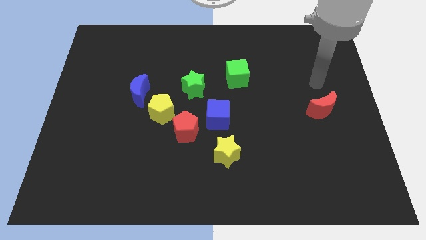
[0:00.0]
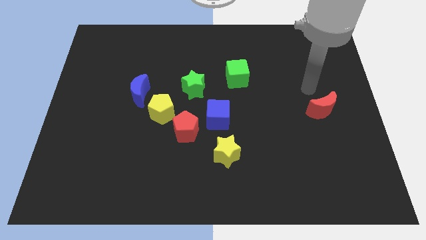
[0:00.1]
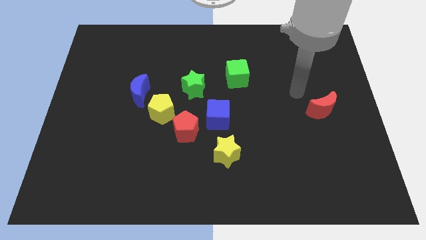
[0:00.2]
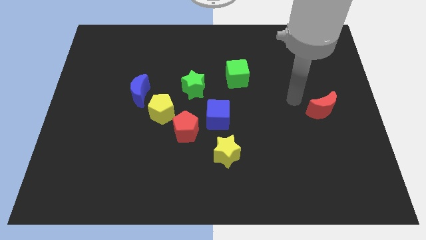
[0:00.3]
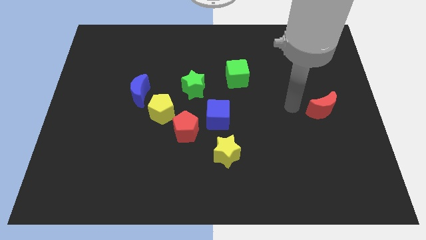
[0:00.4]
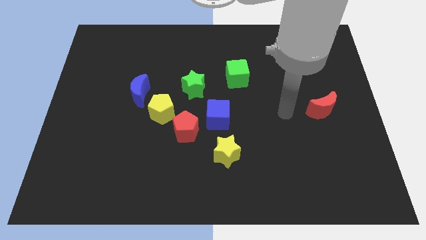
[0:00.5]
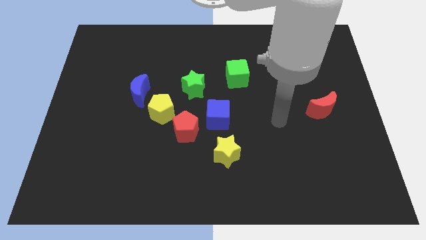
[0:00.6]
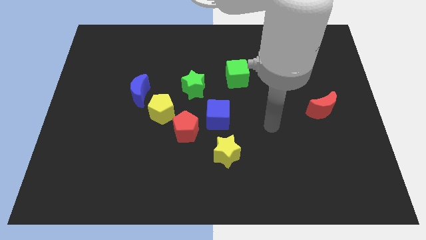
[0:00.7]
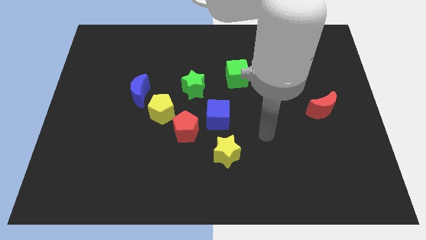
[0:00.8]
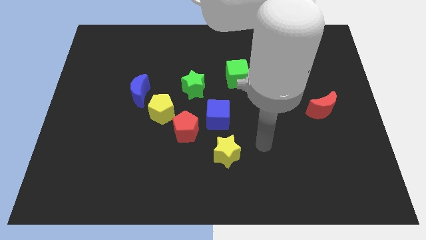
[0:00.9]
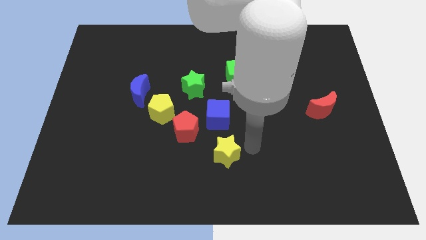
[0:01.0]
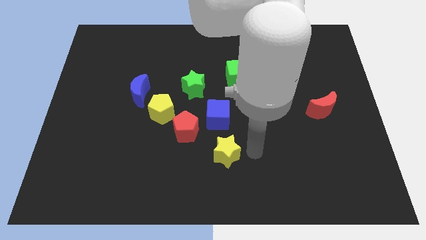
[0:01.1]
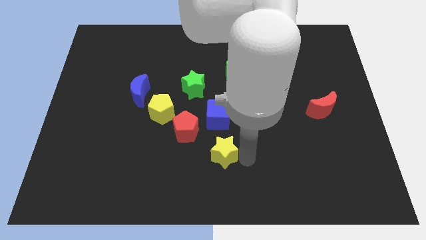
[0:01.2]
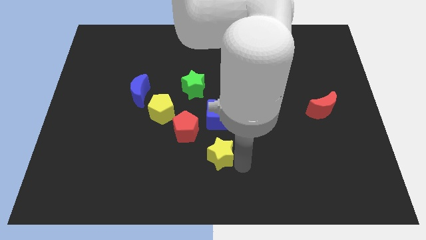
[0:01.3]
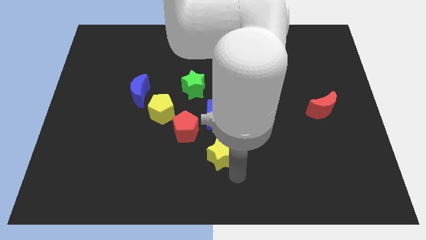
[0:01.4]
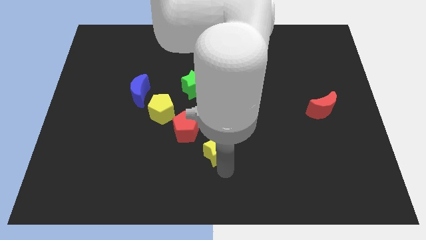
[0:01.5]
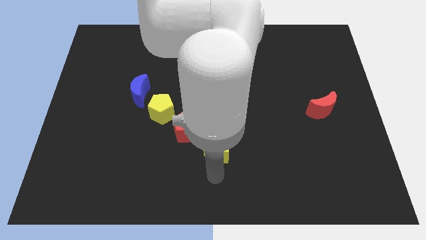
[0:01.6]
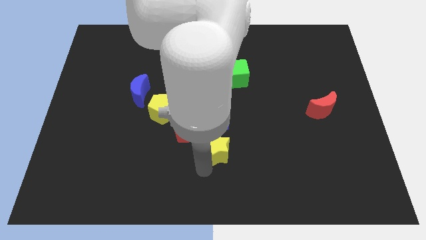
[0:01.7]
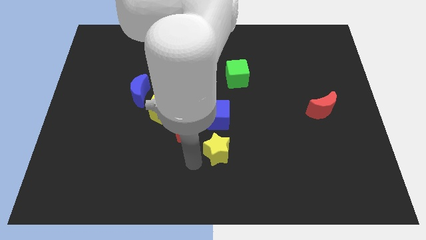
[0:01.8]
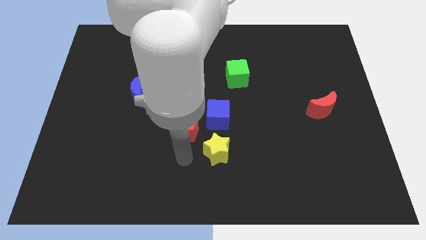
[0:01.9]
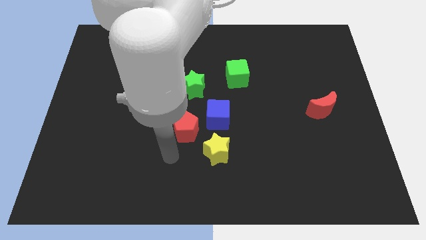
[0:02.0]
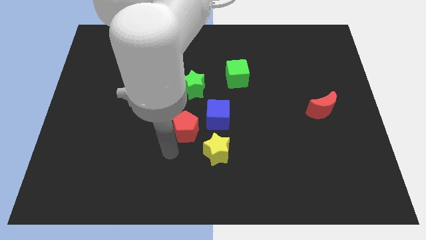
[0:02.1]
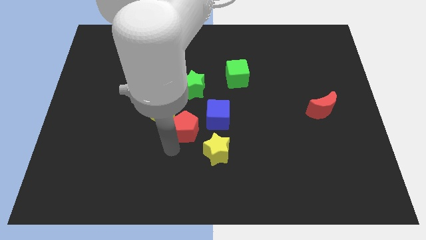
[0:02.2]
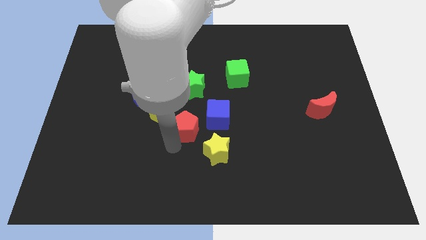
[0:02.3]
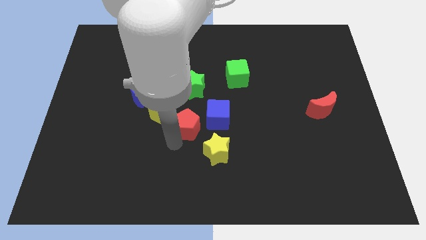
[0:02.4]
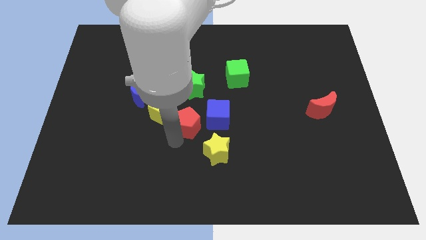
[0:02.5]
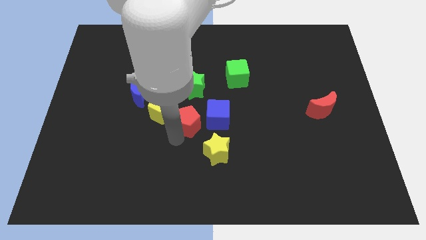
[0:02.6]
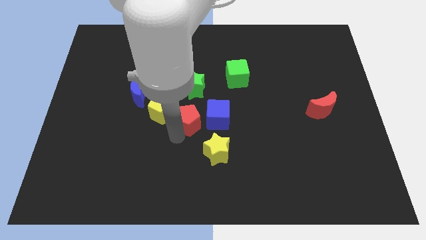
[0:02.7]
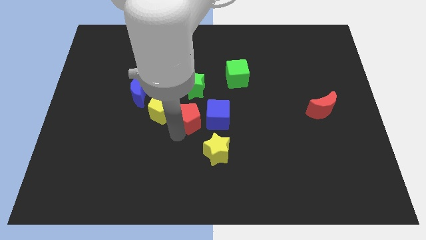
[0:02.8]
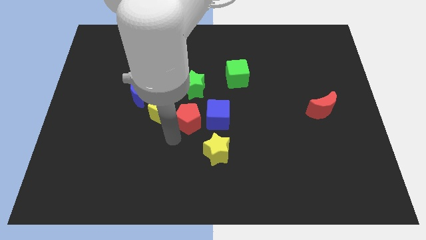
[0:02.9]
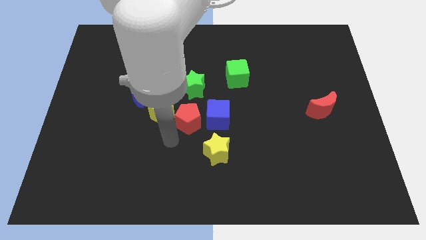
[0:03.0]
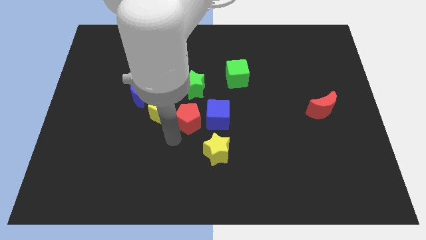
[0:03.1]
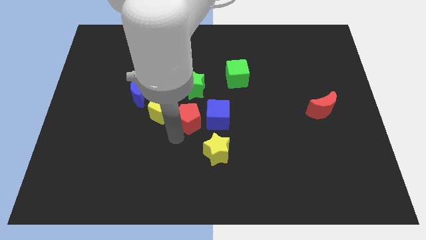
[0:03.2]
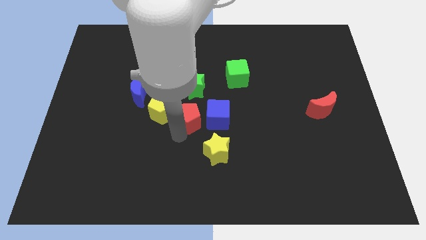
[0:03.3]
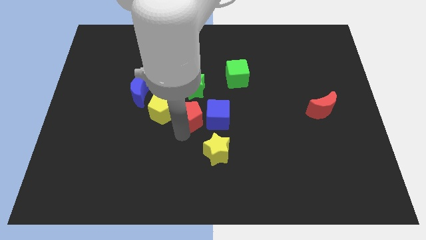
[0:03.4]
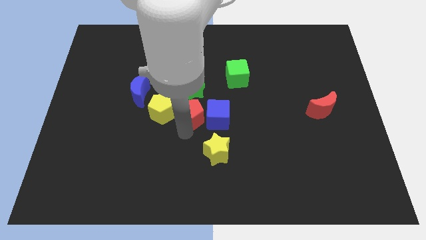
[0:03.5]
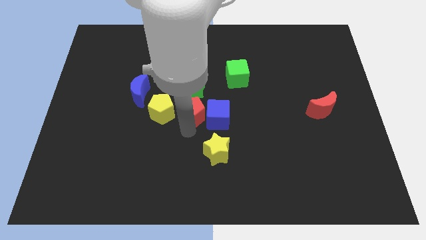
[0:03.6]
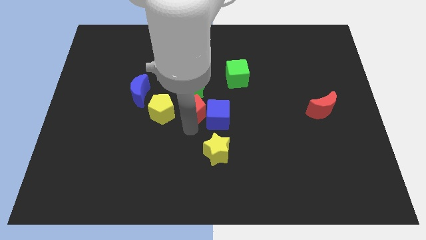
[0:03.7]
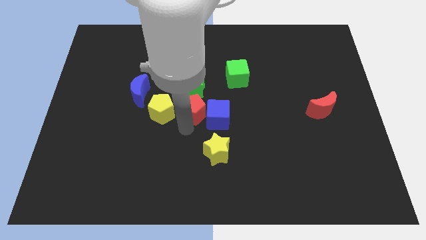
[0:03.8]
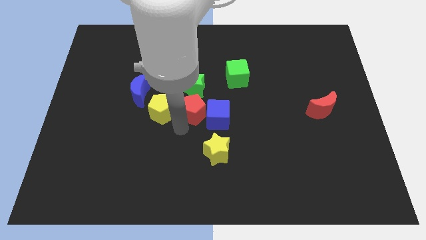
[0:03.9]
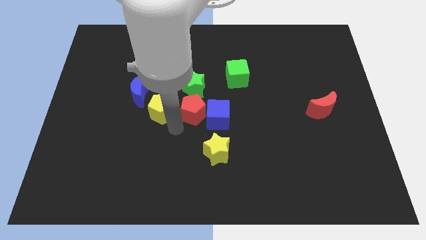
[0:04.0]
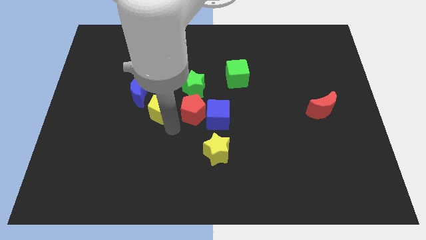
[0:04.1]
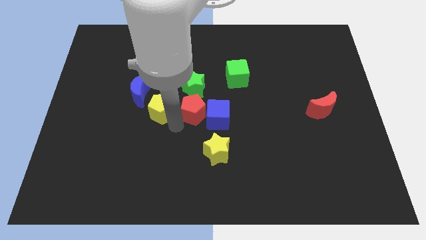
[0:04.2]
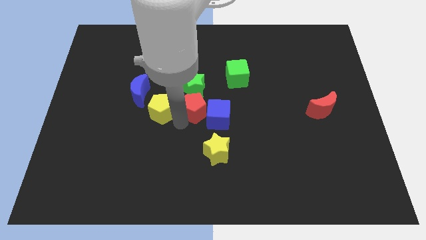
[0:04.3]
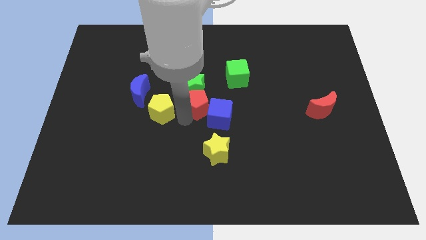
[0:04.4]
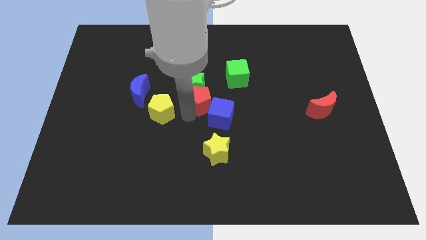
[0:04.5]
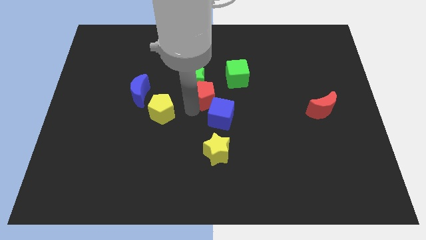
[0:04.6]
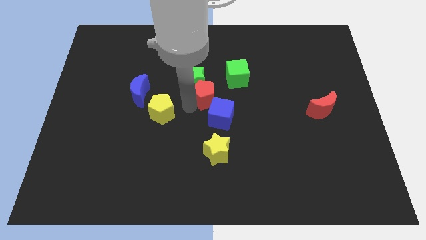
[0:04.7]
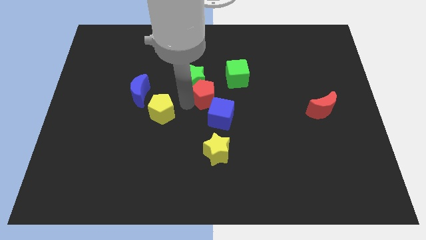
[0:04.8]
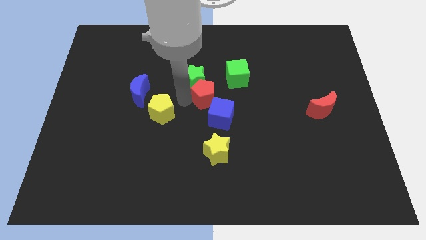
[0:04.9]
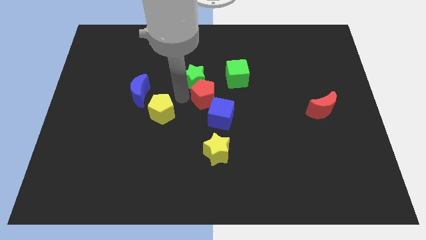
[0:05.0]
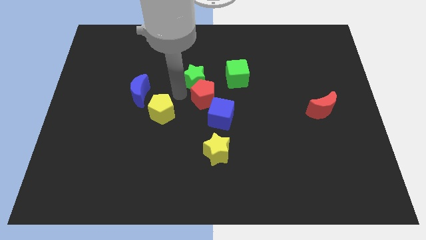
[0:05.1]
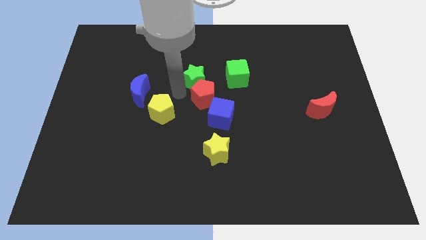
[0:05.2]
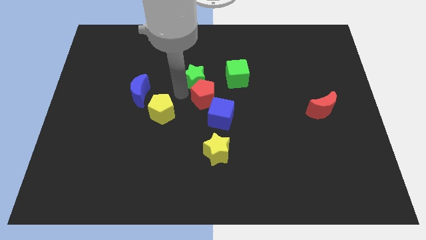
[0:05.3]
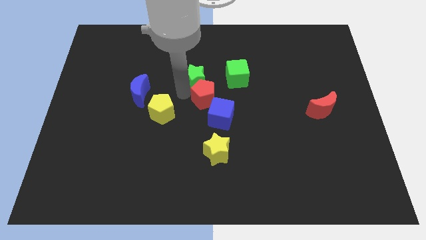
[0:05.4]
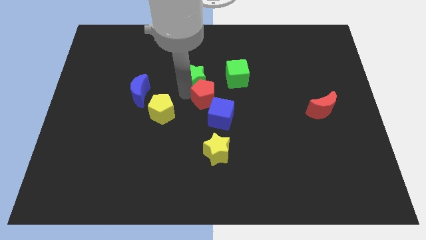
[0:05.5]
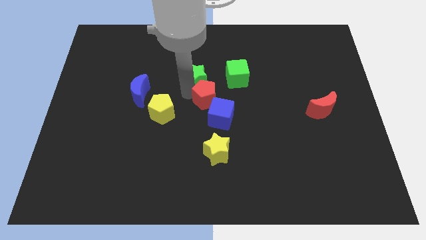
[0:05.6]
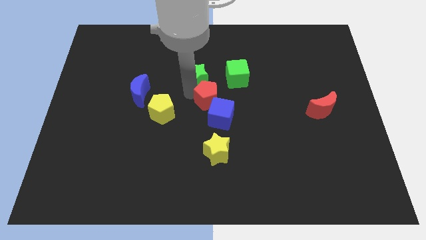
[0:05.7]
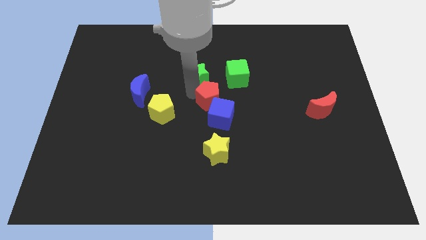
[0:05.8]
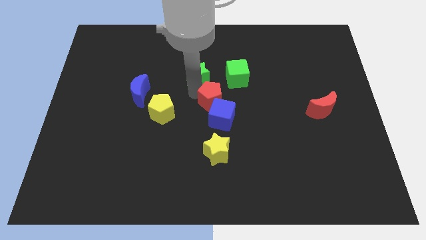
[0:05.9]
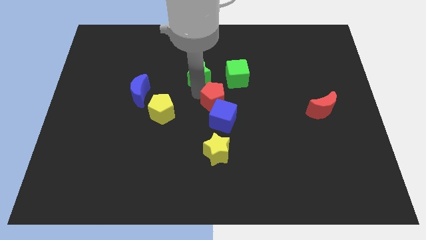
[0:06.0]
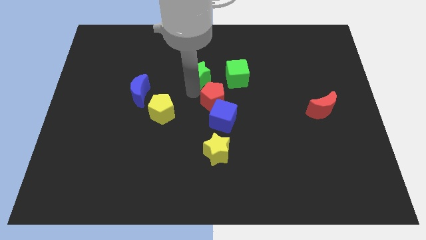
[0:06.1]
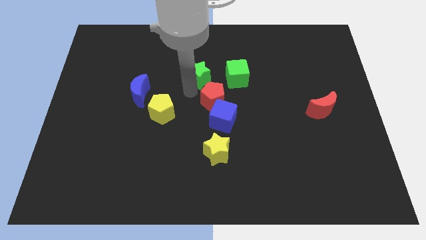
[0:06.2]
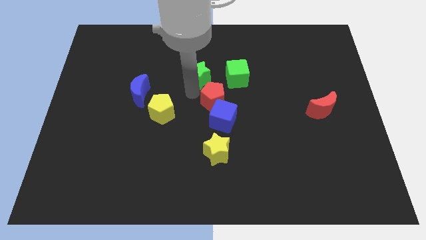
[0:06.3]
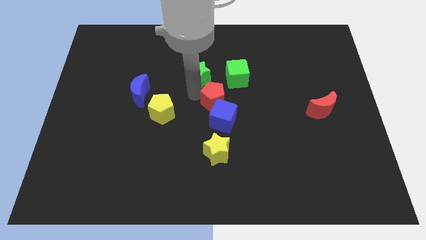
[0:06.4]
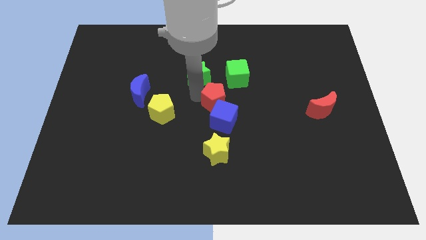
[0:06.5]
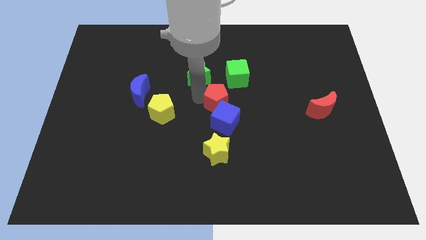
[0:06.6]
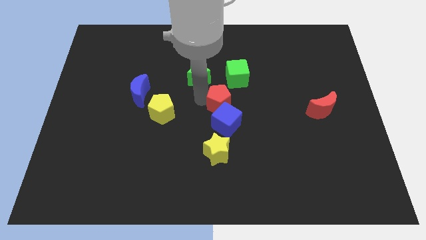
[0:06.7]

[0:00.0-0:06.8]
move the red pentagon to the bottom of the green cube

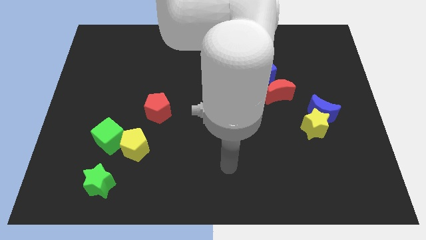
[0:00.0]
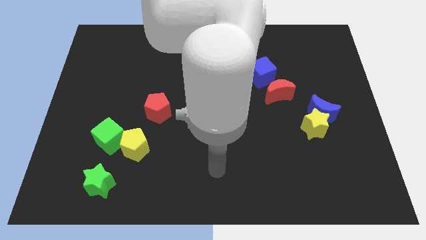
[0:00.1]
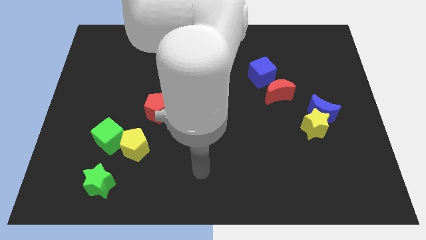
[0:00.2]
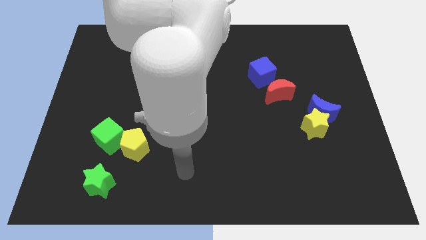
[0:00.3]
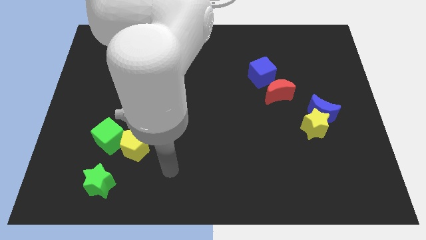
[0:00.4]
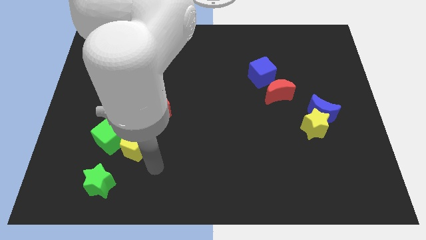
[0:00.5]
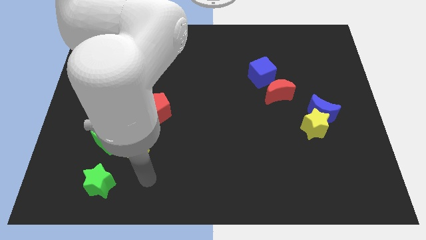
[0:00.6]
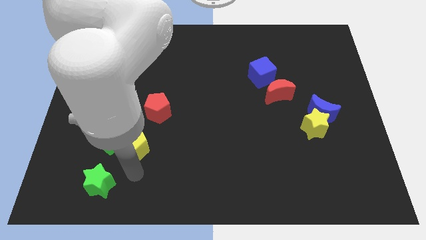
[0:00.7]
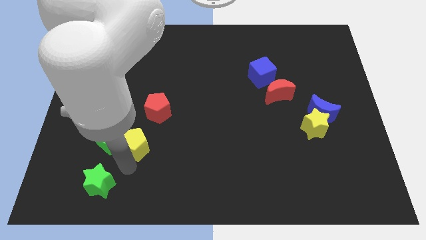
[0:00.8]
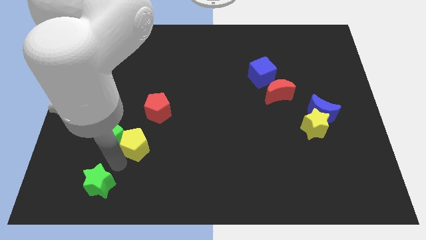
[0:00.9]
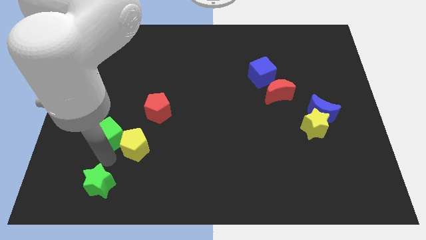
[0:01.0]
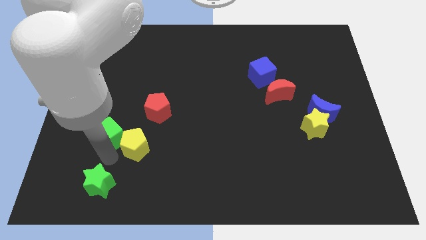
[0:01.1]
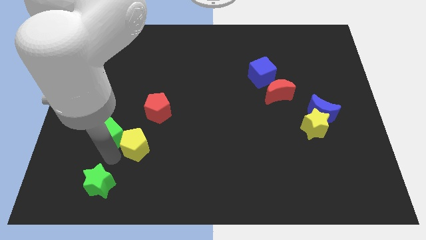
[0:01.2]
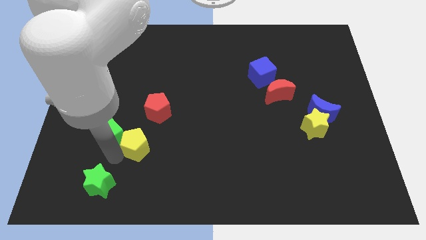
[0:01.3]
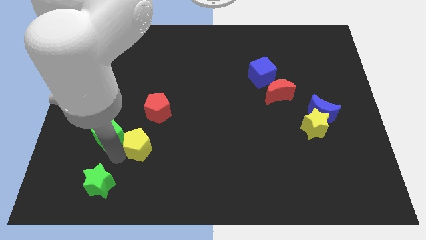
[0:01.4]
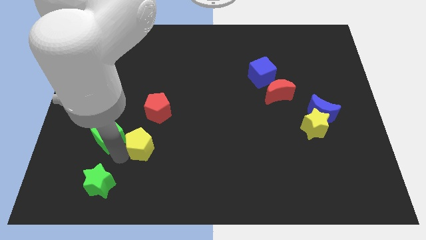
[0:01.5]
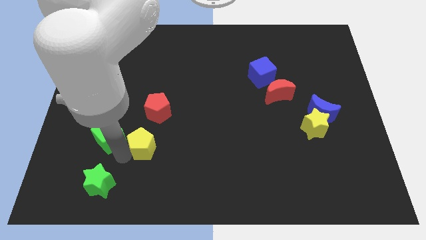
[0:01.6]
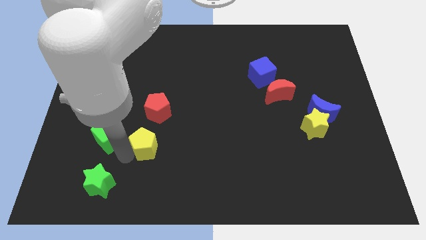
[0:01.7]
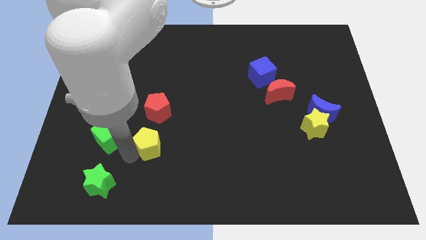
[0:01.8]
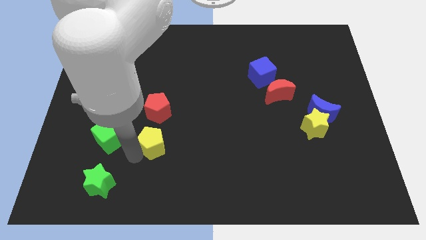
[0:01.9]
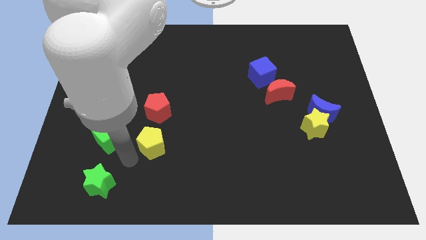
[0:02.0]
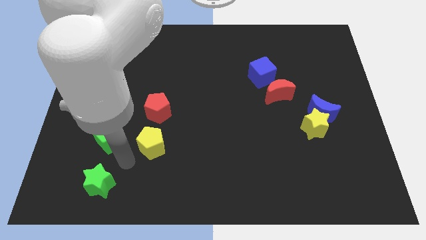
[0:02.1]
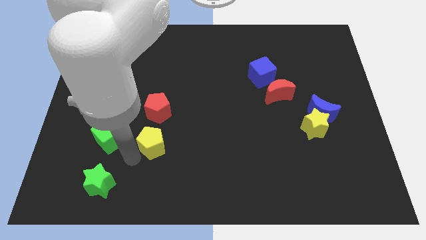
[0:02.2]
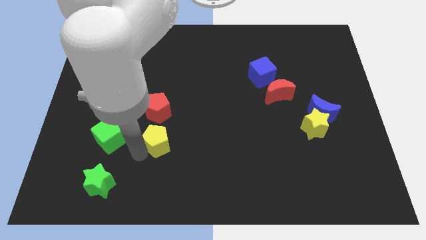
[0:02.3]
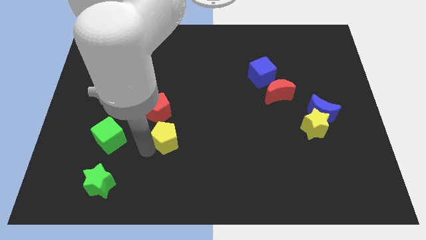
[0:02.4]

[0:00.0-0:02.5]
put the yellow pentagon to the bottom right side of the red pentagon
